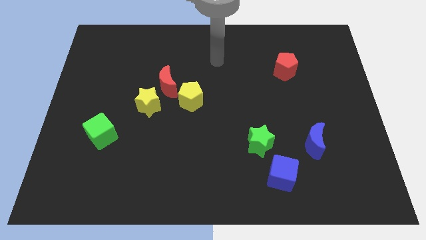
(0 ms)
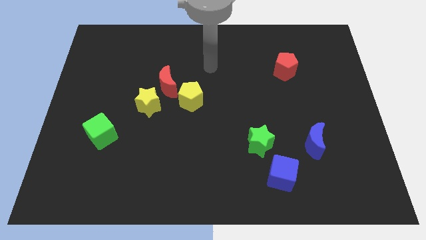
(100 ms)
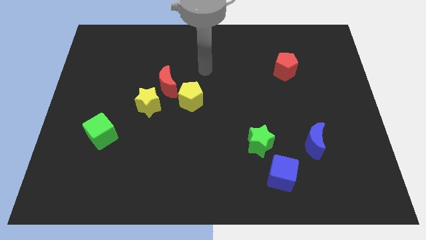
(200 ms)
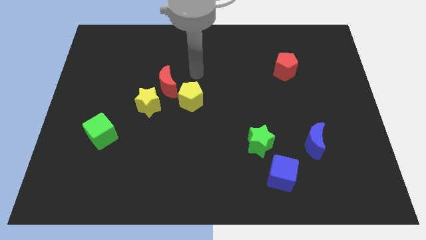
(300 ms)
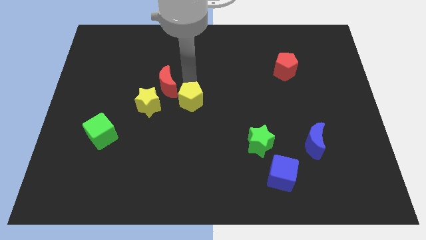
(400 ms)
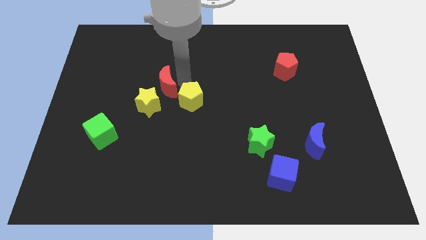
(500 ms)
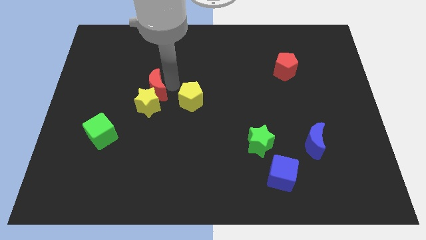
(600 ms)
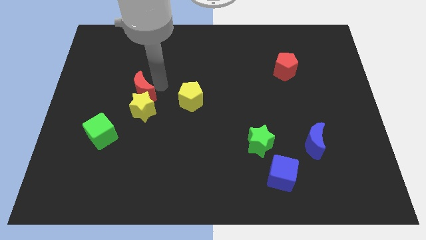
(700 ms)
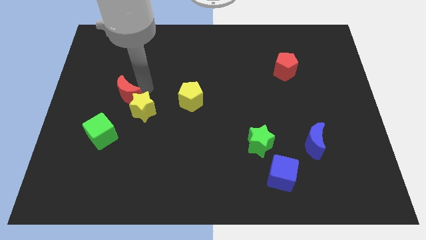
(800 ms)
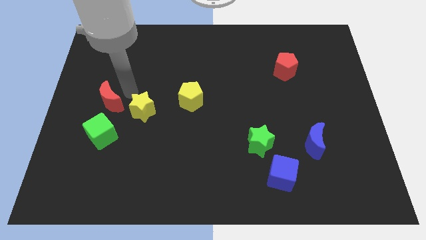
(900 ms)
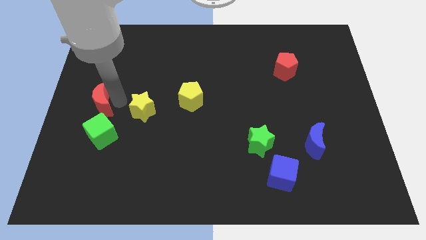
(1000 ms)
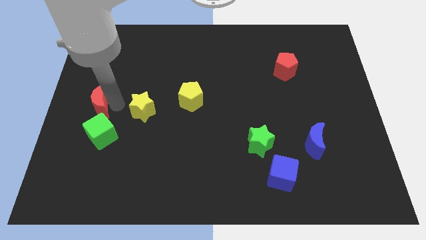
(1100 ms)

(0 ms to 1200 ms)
pull the yellow star apart from the red moon

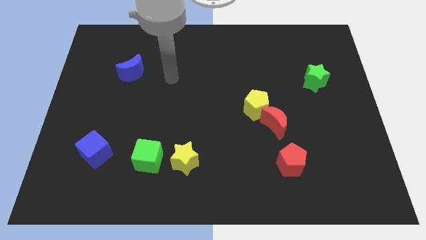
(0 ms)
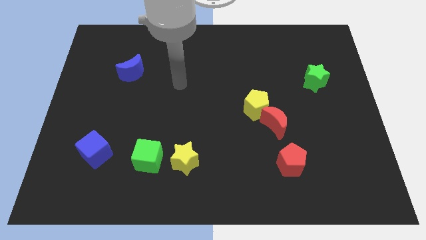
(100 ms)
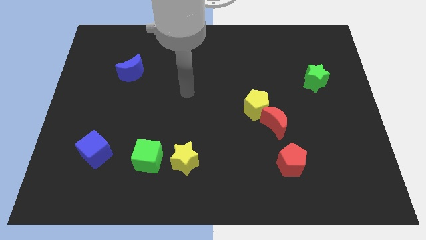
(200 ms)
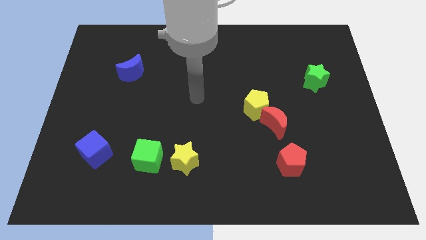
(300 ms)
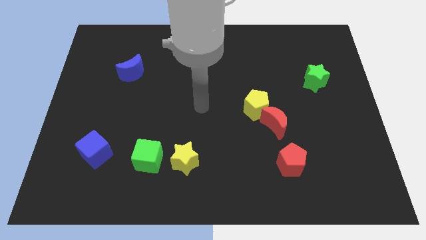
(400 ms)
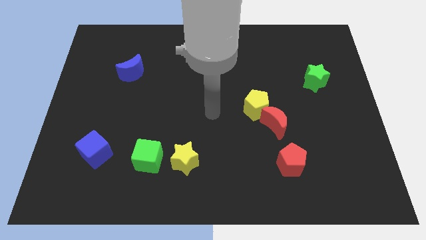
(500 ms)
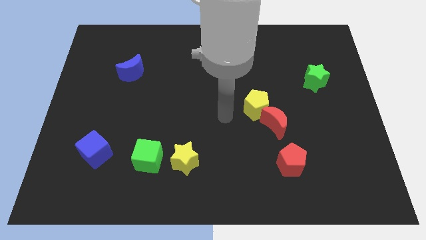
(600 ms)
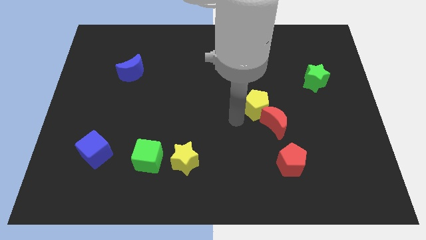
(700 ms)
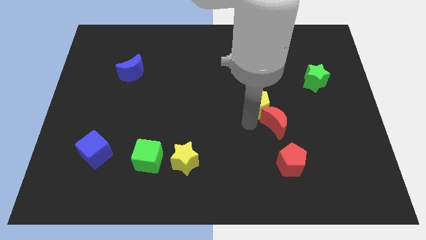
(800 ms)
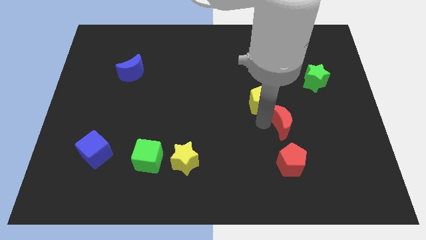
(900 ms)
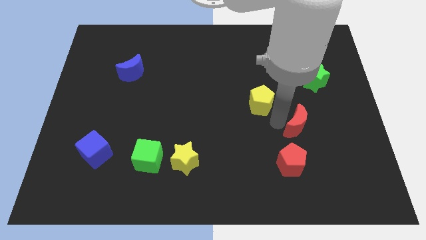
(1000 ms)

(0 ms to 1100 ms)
move the yellow pentagon away from the red moon

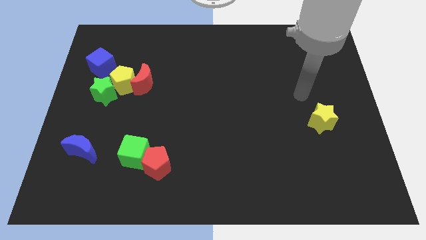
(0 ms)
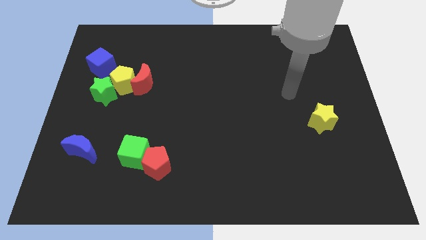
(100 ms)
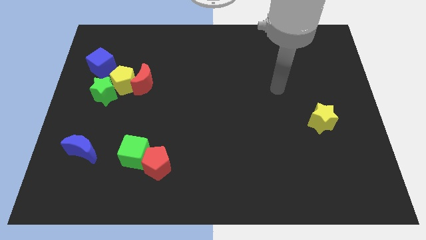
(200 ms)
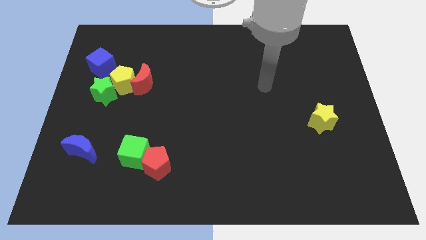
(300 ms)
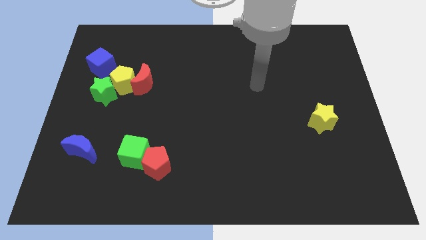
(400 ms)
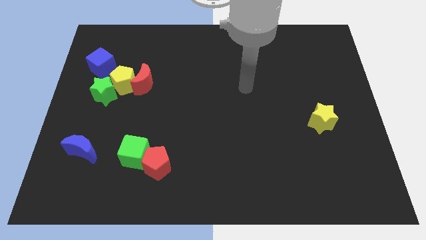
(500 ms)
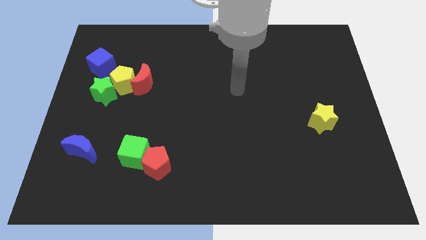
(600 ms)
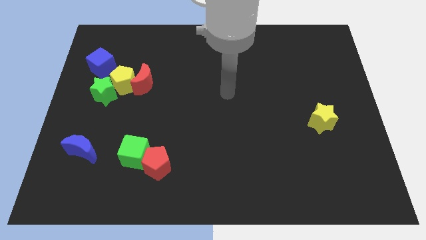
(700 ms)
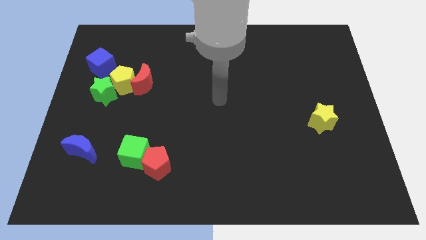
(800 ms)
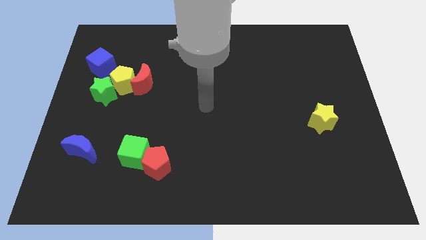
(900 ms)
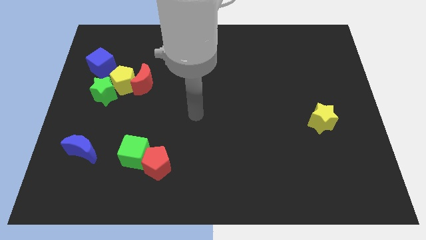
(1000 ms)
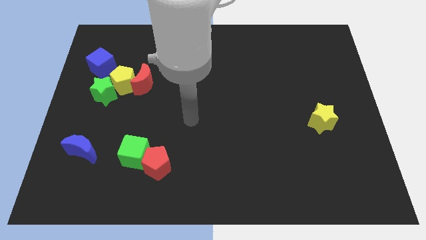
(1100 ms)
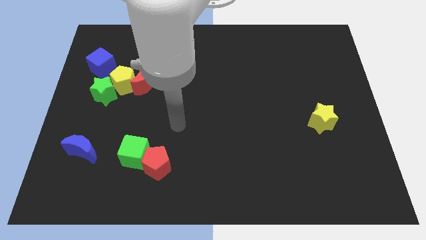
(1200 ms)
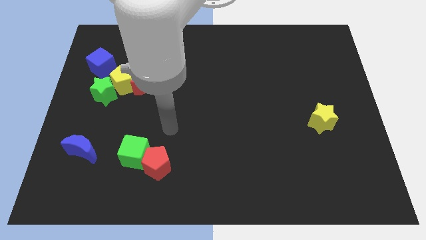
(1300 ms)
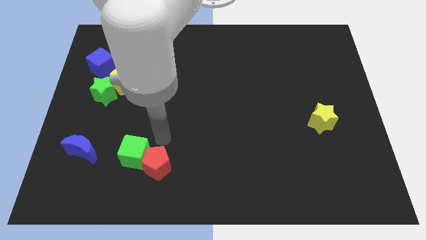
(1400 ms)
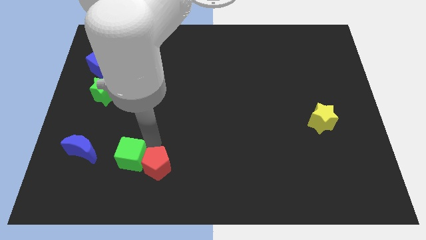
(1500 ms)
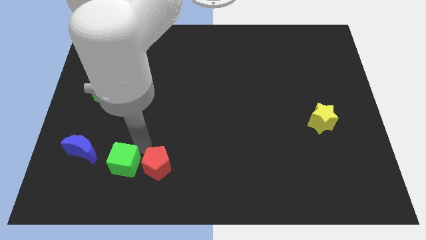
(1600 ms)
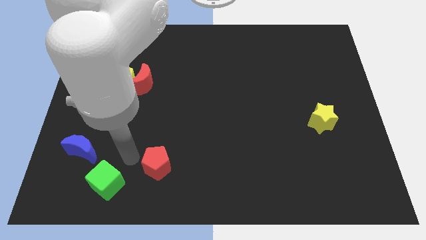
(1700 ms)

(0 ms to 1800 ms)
move the red pentagon away from the green cube

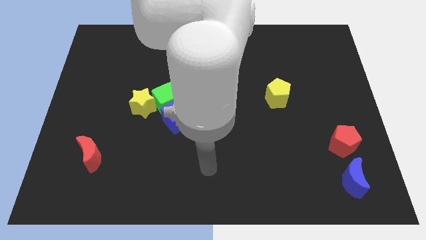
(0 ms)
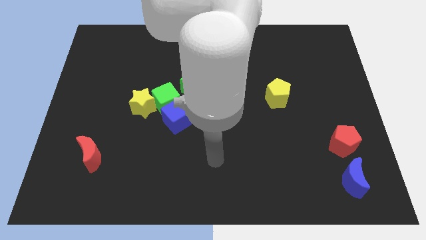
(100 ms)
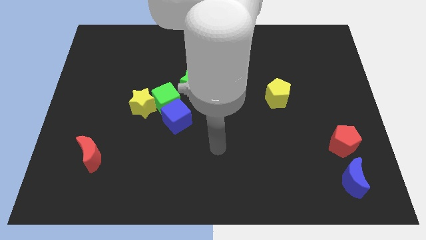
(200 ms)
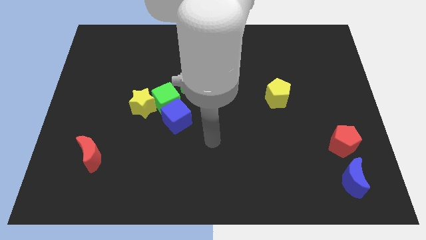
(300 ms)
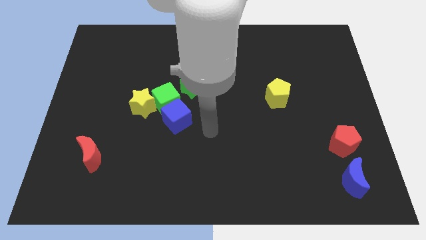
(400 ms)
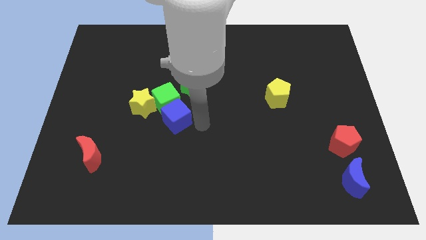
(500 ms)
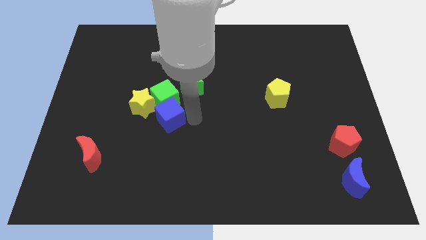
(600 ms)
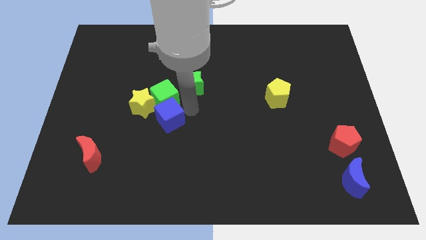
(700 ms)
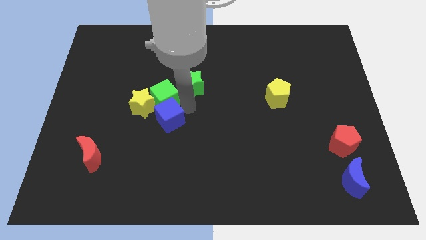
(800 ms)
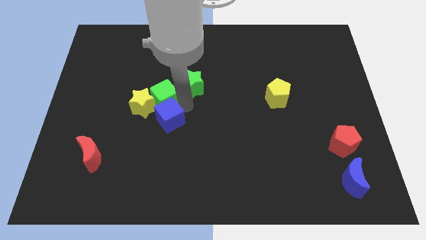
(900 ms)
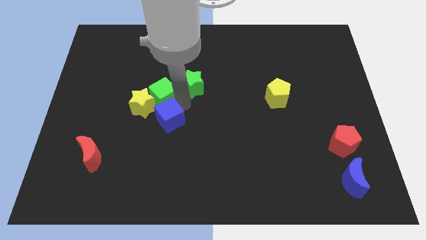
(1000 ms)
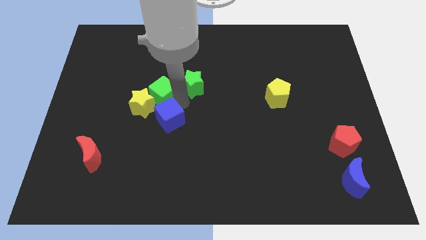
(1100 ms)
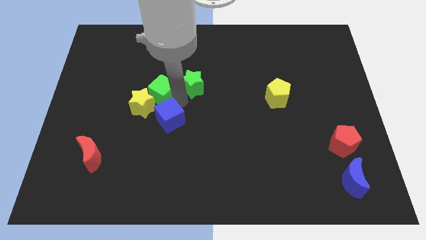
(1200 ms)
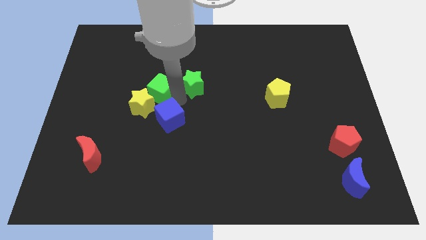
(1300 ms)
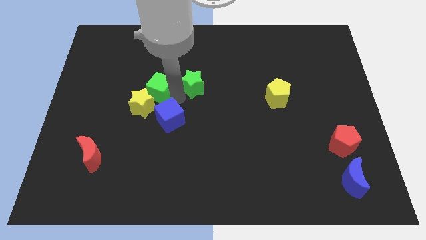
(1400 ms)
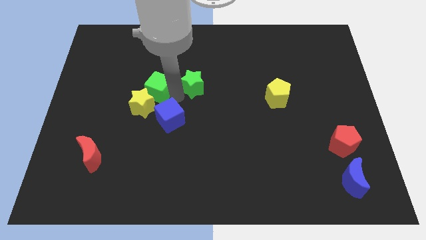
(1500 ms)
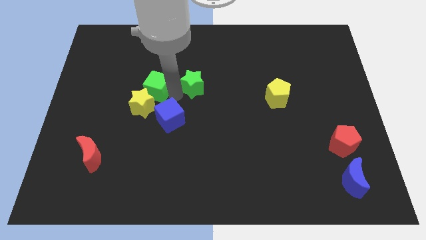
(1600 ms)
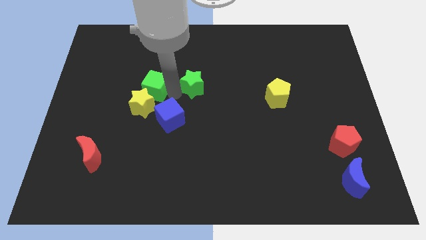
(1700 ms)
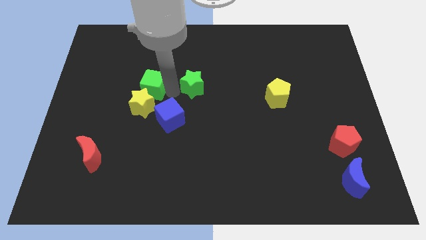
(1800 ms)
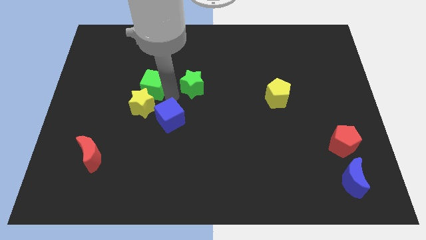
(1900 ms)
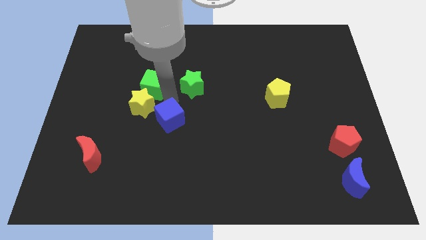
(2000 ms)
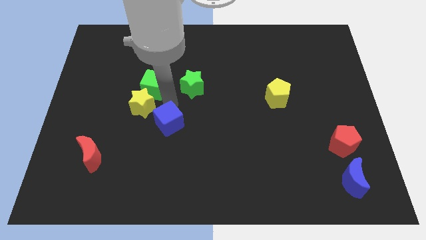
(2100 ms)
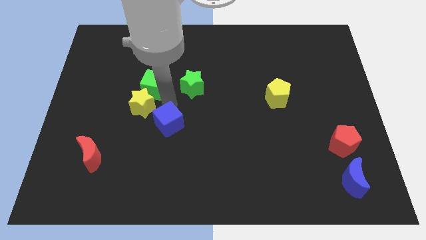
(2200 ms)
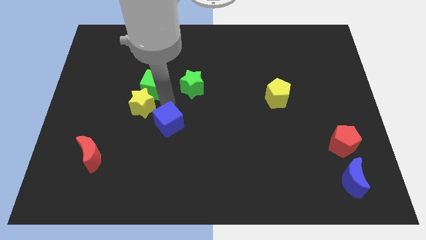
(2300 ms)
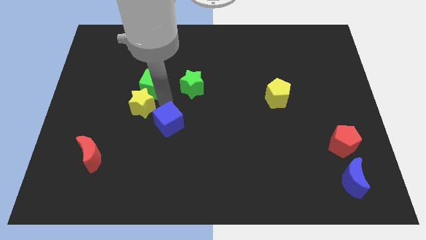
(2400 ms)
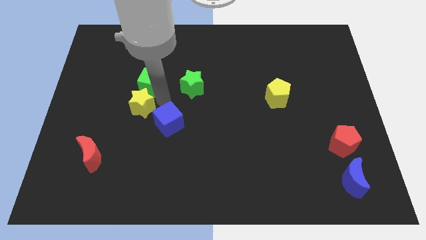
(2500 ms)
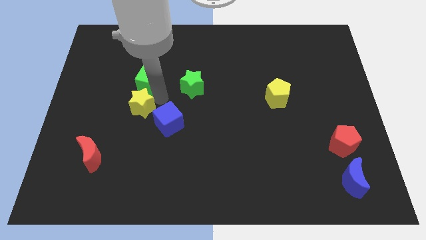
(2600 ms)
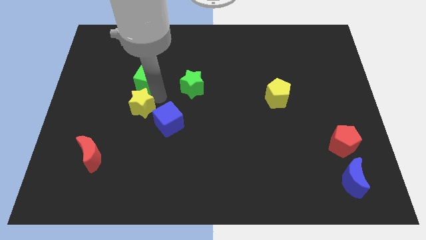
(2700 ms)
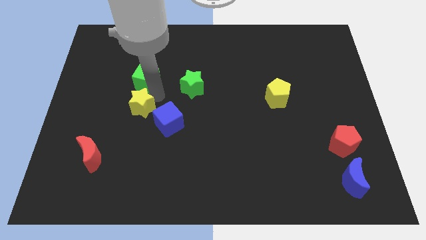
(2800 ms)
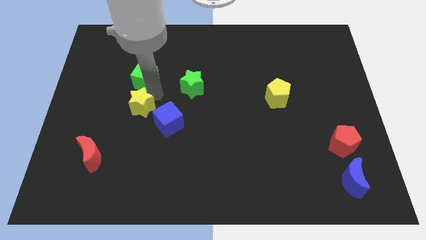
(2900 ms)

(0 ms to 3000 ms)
move the green cube away from the yellow star, blue cube, and green star

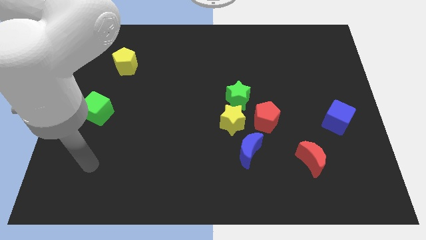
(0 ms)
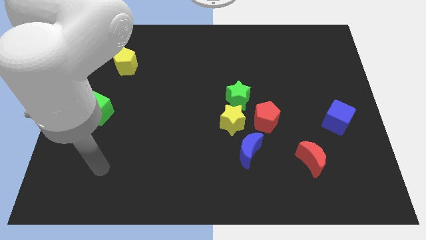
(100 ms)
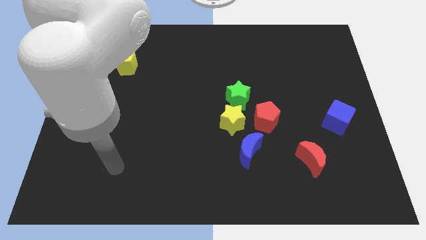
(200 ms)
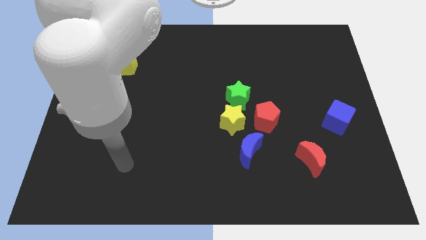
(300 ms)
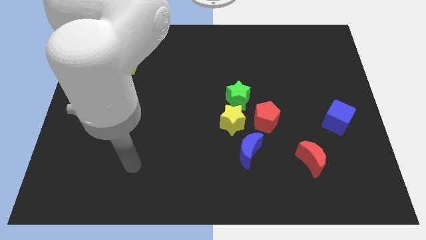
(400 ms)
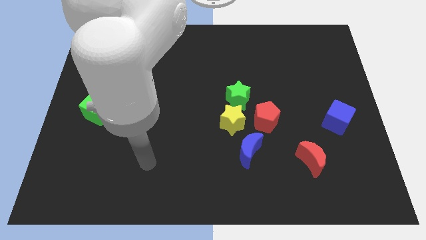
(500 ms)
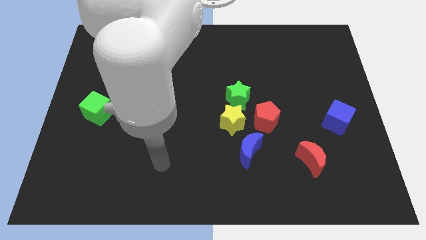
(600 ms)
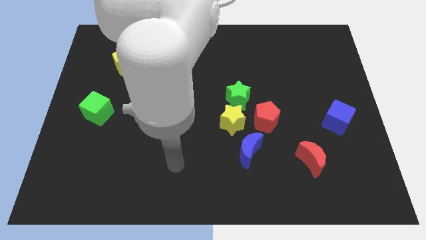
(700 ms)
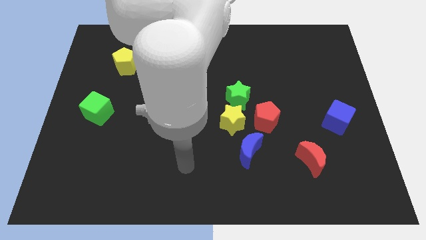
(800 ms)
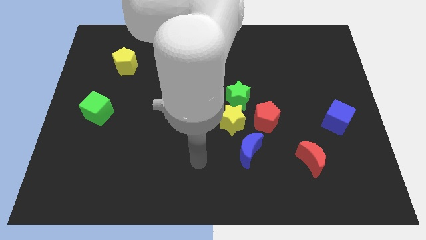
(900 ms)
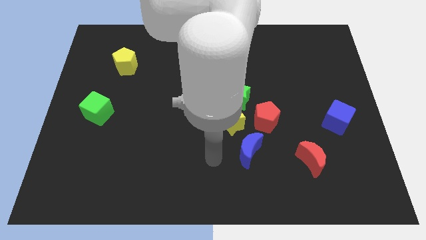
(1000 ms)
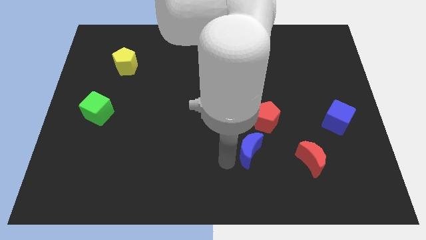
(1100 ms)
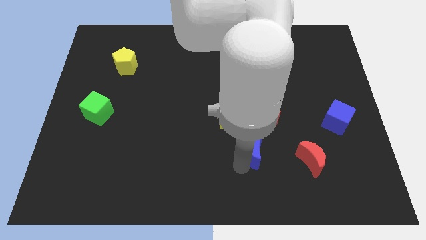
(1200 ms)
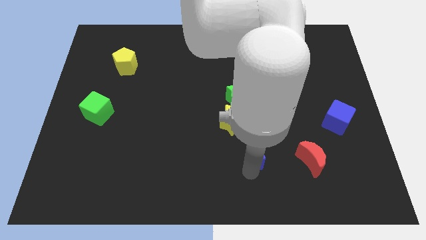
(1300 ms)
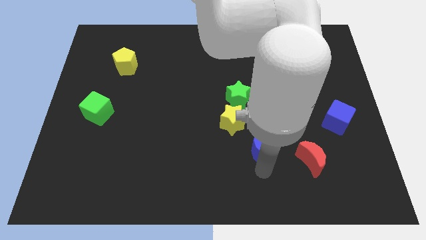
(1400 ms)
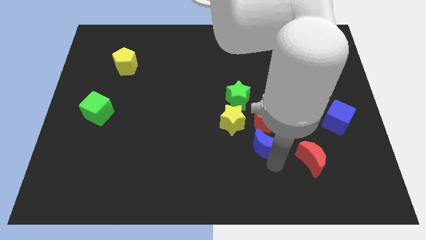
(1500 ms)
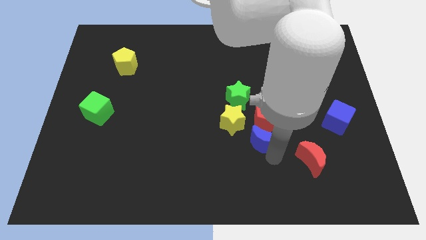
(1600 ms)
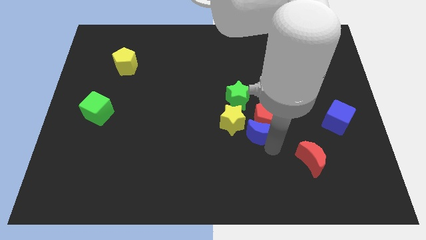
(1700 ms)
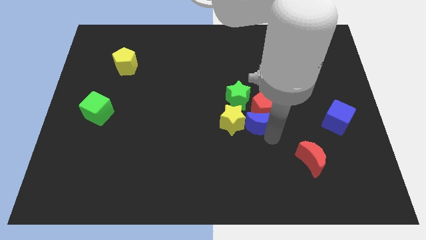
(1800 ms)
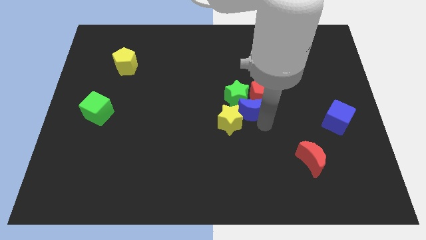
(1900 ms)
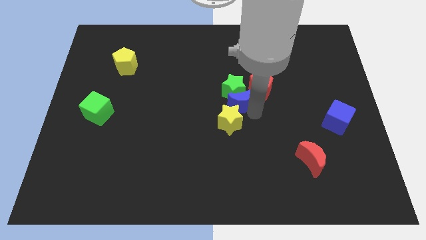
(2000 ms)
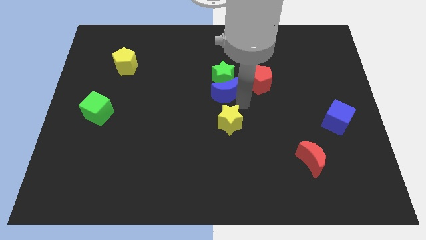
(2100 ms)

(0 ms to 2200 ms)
separate the yellow star from the group
